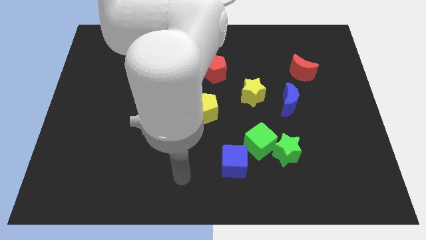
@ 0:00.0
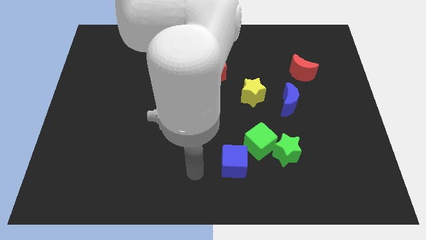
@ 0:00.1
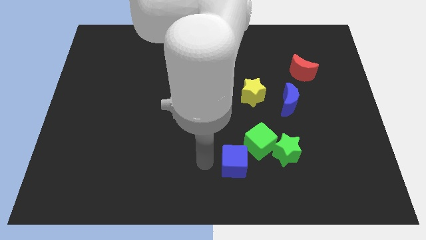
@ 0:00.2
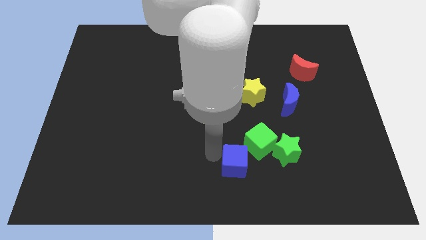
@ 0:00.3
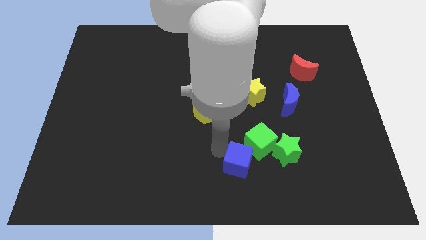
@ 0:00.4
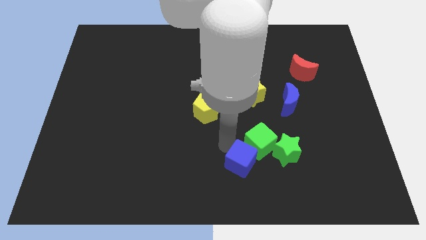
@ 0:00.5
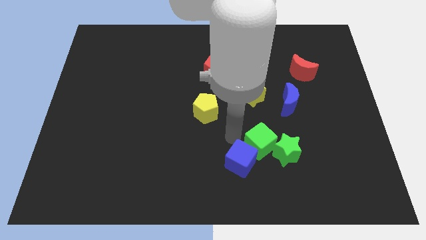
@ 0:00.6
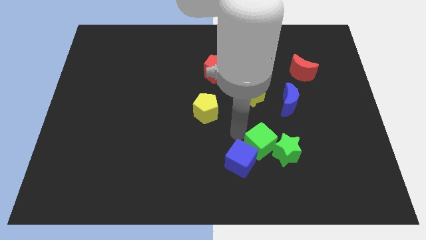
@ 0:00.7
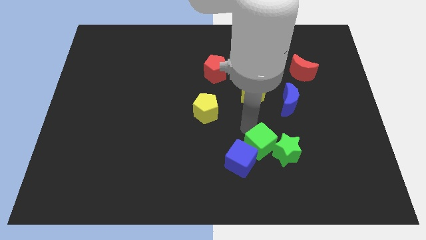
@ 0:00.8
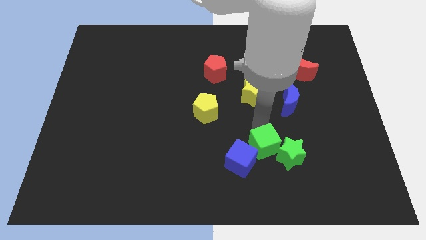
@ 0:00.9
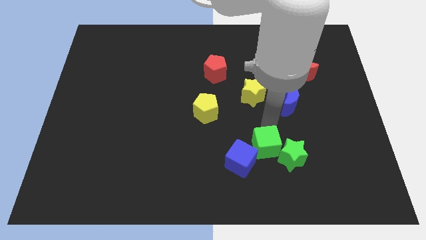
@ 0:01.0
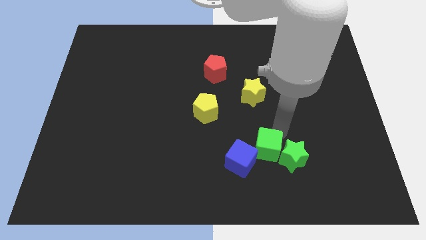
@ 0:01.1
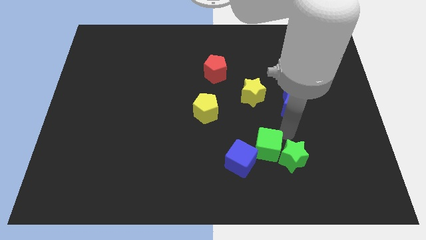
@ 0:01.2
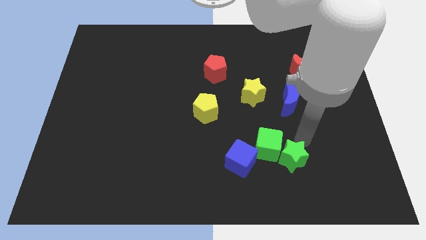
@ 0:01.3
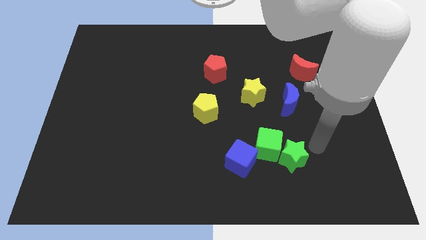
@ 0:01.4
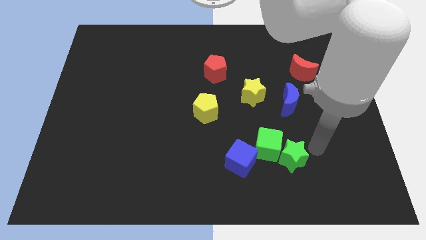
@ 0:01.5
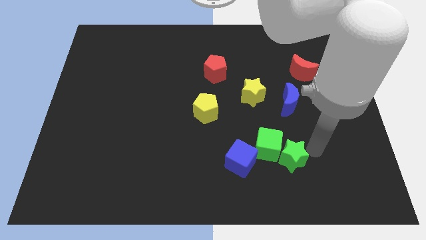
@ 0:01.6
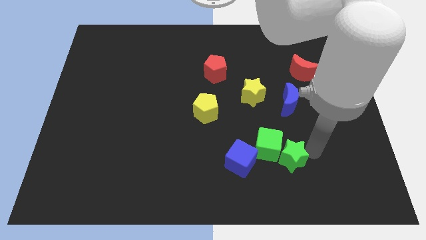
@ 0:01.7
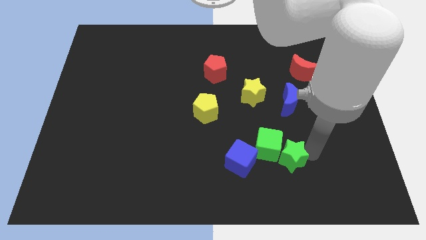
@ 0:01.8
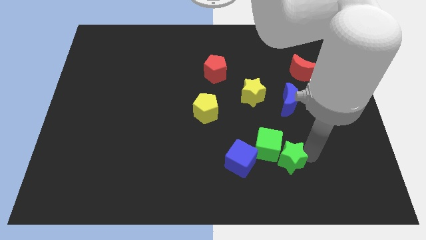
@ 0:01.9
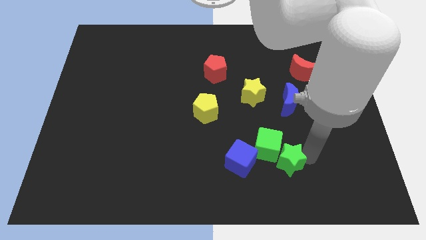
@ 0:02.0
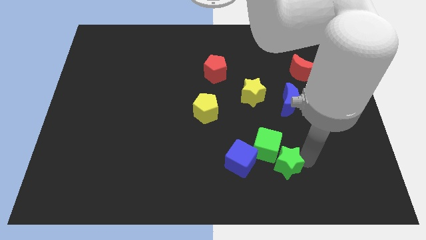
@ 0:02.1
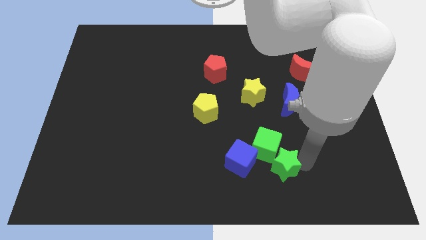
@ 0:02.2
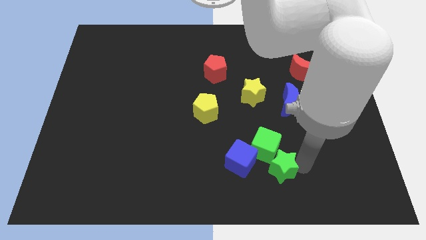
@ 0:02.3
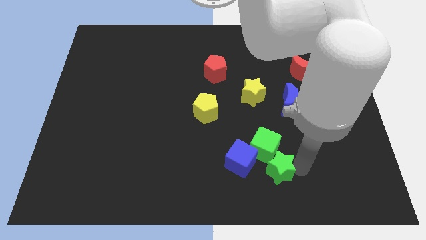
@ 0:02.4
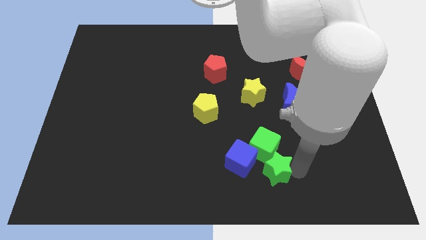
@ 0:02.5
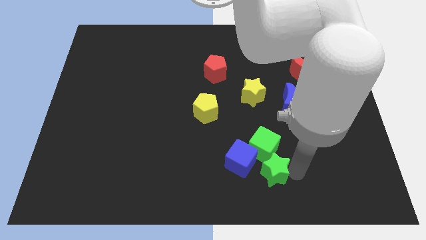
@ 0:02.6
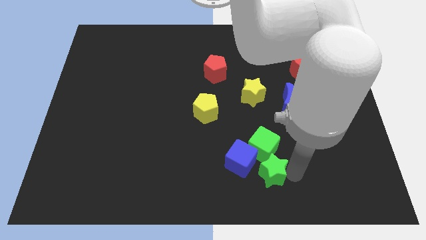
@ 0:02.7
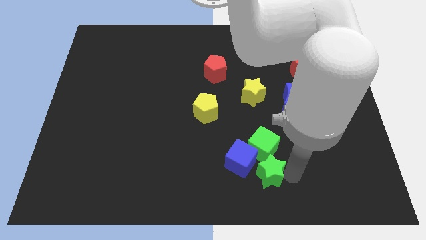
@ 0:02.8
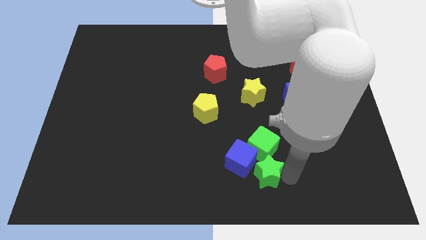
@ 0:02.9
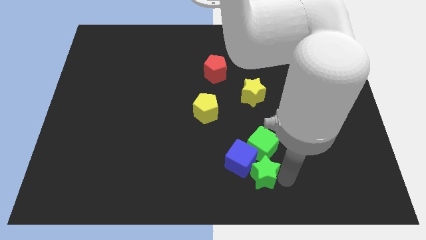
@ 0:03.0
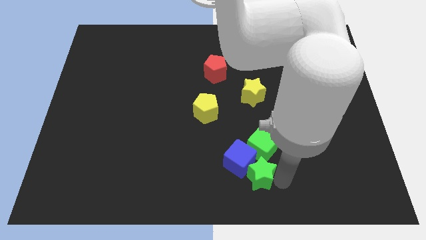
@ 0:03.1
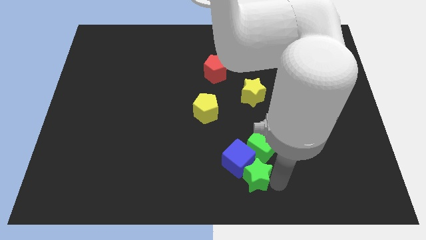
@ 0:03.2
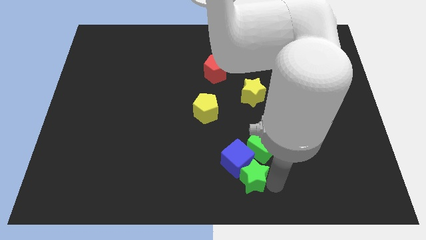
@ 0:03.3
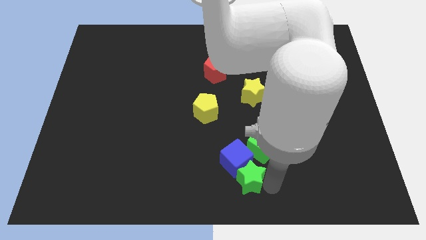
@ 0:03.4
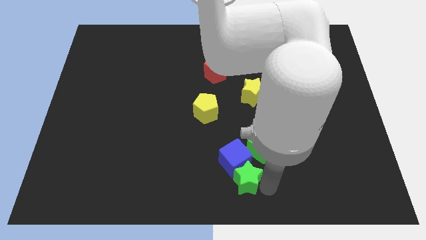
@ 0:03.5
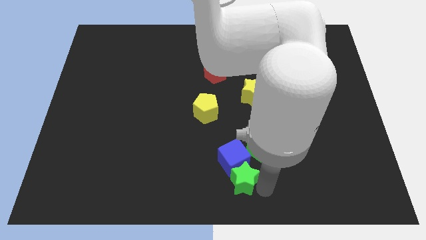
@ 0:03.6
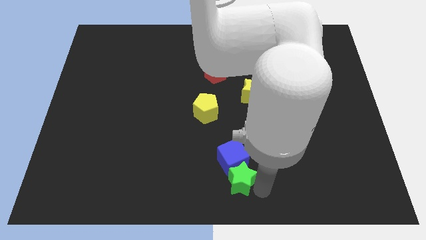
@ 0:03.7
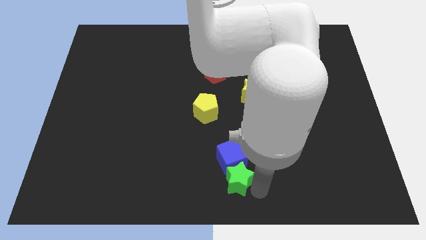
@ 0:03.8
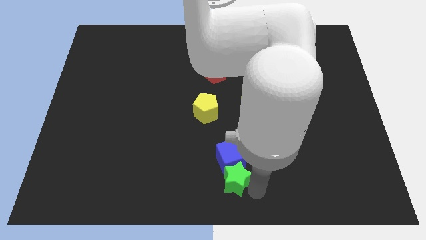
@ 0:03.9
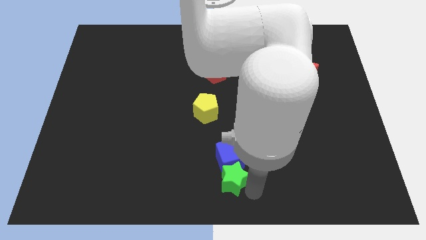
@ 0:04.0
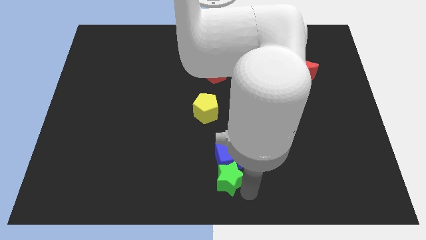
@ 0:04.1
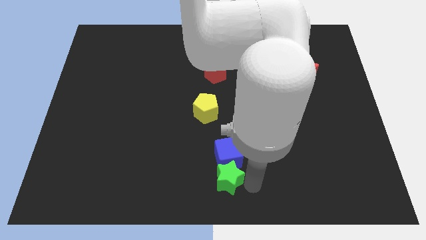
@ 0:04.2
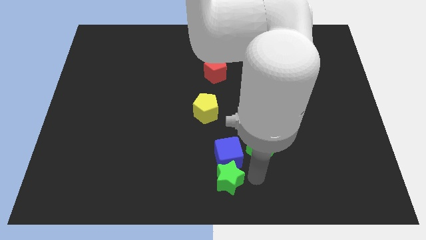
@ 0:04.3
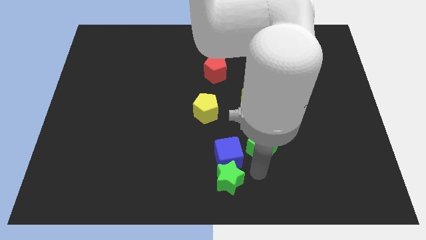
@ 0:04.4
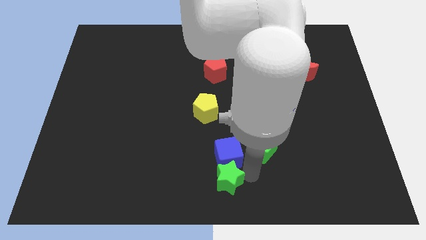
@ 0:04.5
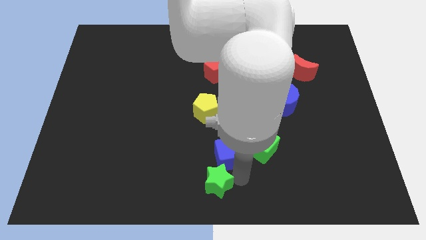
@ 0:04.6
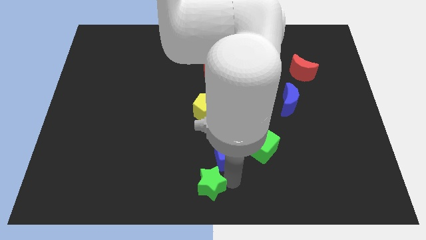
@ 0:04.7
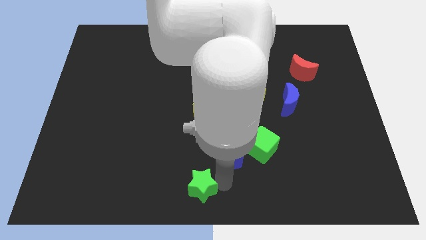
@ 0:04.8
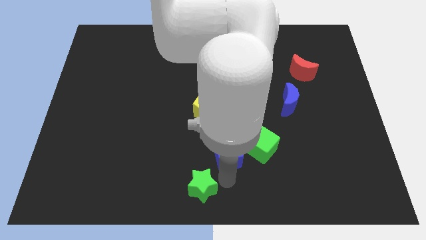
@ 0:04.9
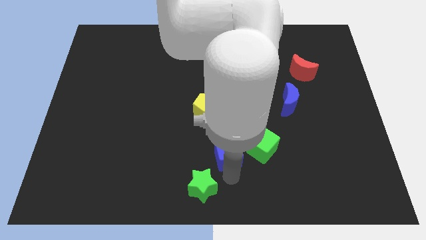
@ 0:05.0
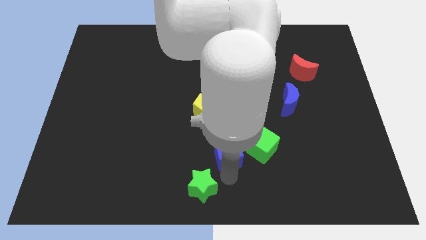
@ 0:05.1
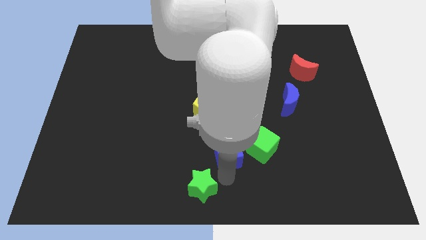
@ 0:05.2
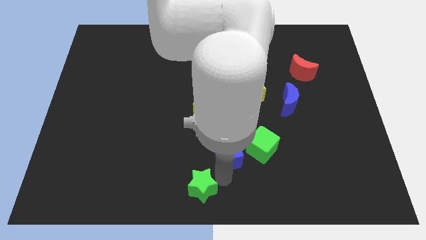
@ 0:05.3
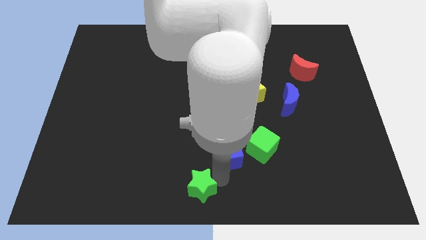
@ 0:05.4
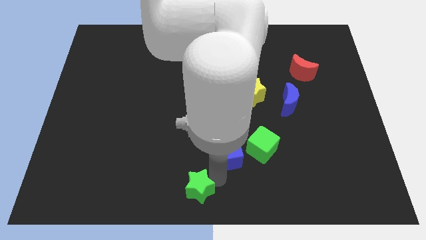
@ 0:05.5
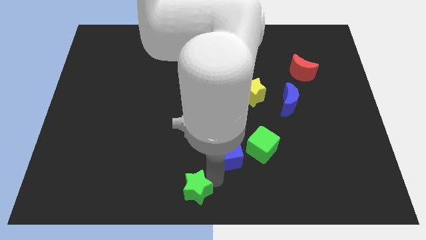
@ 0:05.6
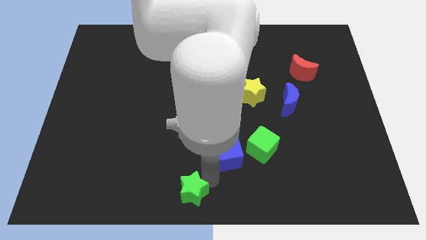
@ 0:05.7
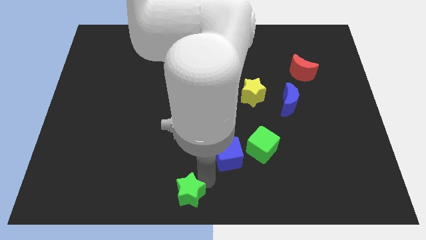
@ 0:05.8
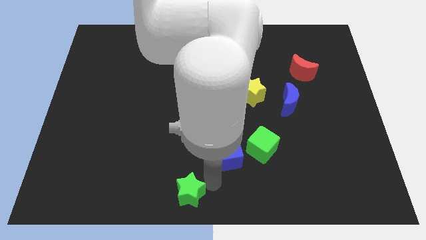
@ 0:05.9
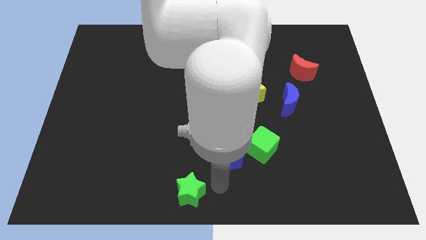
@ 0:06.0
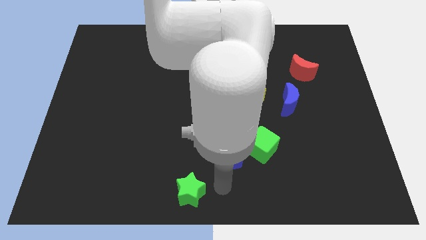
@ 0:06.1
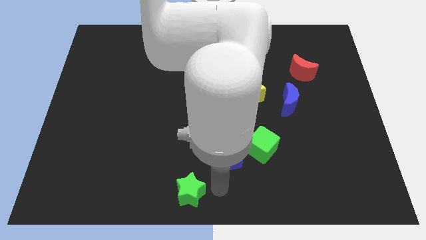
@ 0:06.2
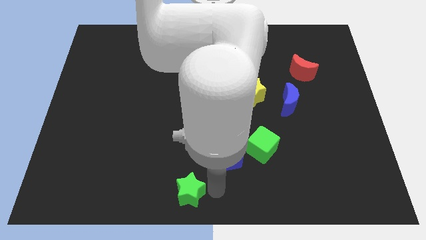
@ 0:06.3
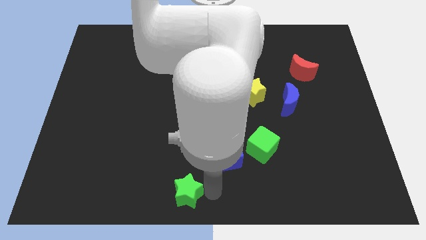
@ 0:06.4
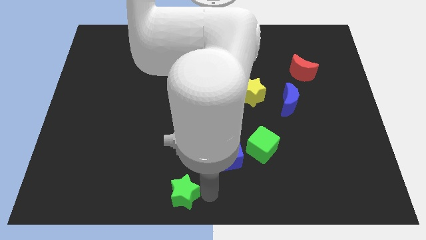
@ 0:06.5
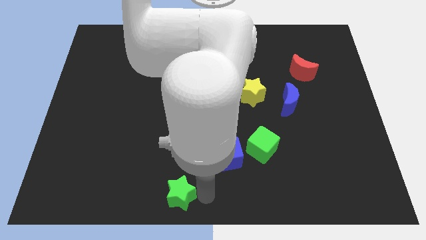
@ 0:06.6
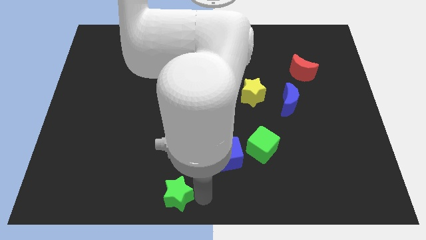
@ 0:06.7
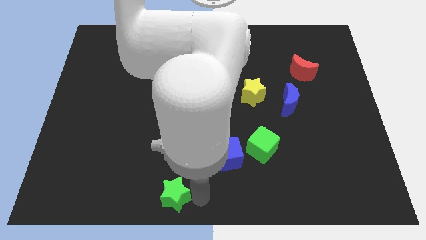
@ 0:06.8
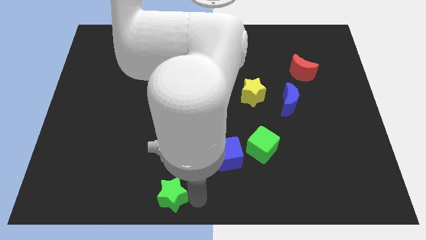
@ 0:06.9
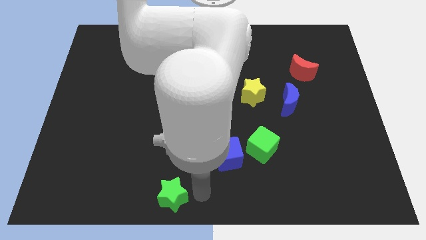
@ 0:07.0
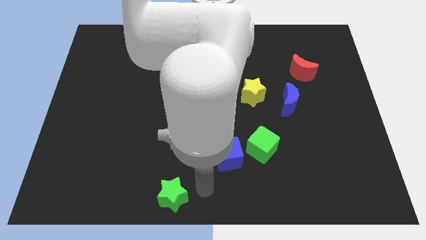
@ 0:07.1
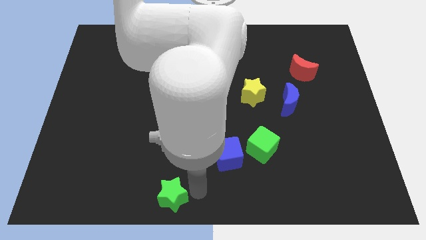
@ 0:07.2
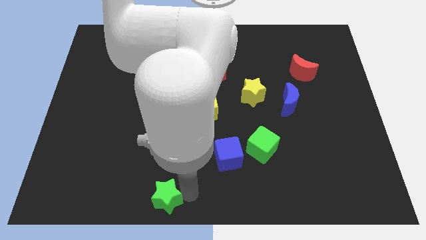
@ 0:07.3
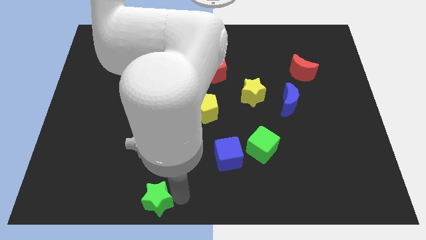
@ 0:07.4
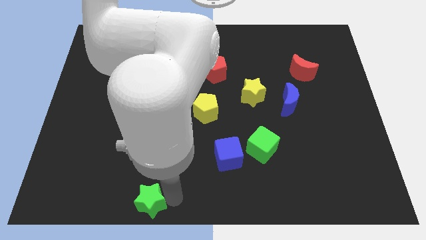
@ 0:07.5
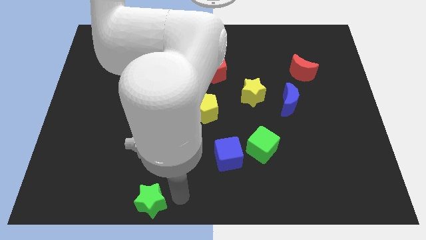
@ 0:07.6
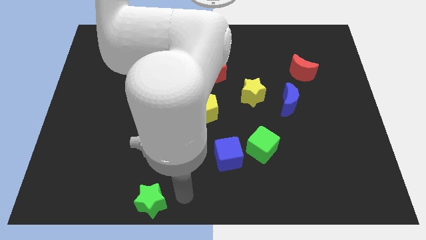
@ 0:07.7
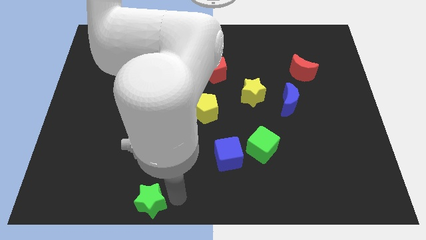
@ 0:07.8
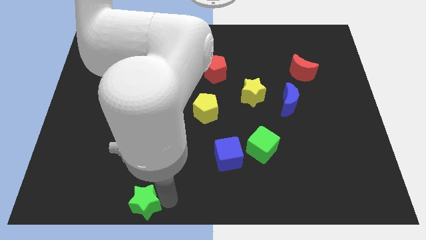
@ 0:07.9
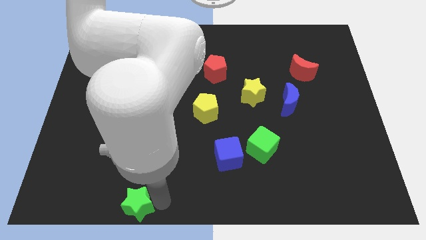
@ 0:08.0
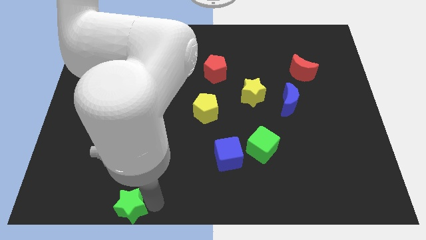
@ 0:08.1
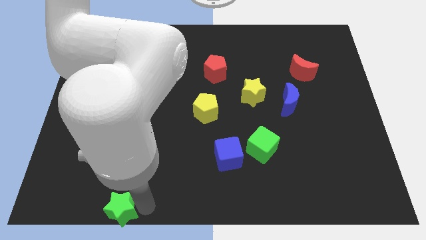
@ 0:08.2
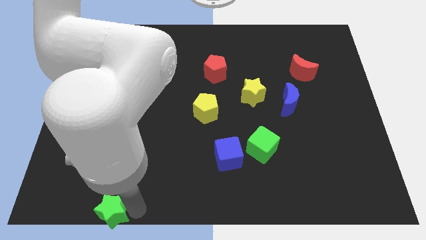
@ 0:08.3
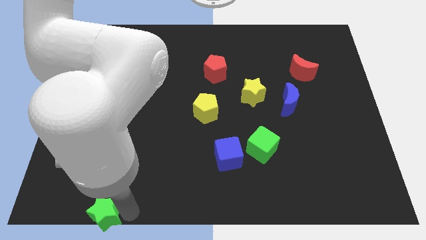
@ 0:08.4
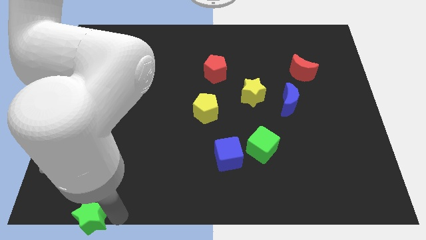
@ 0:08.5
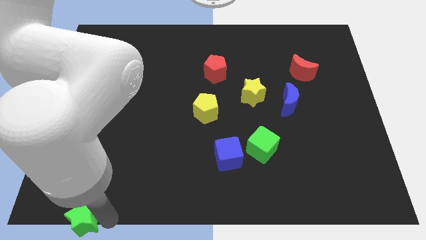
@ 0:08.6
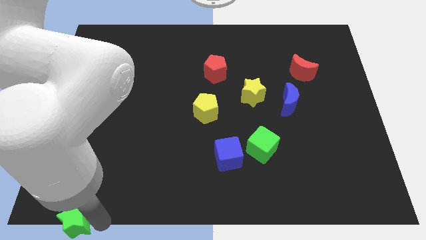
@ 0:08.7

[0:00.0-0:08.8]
slide the green star to the lower left corner
